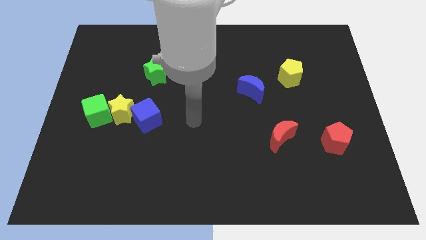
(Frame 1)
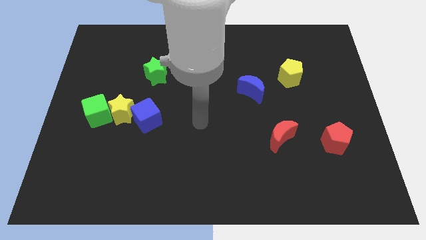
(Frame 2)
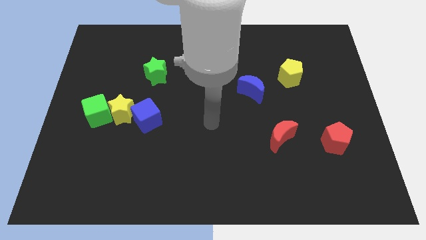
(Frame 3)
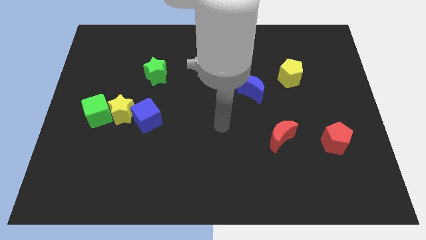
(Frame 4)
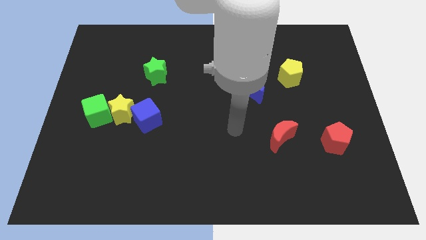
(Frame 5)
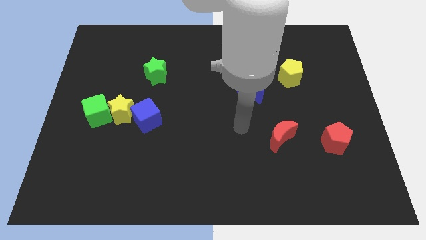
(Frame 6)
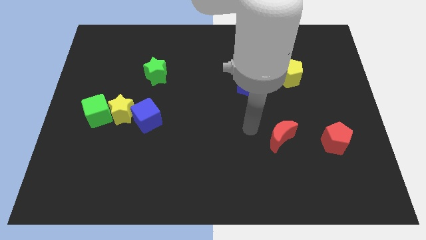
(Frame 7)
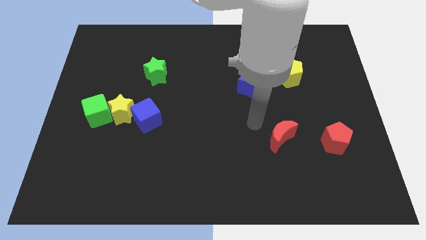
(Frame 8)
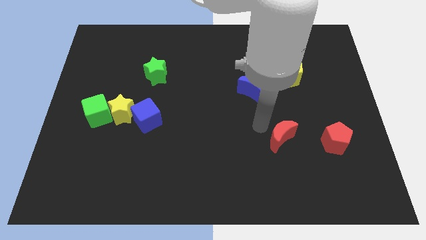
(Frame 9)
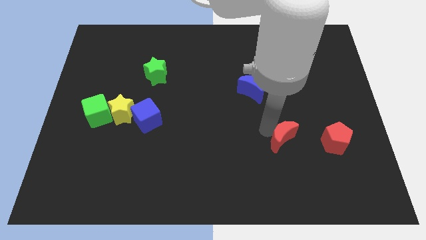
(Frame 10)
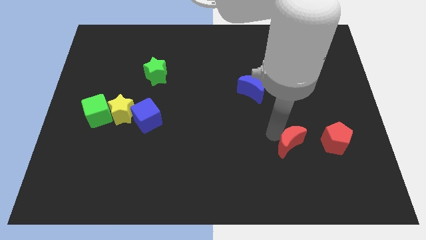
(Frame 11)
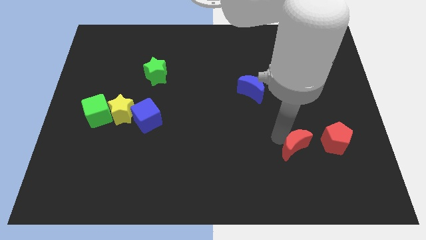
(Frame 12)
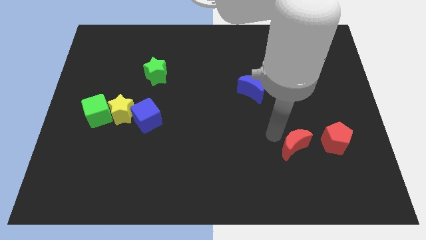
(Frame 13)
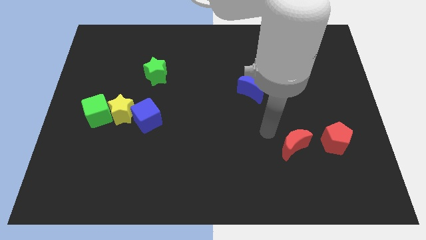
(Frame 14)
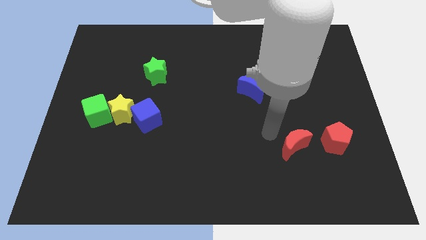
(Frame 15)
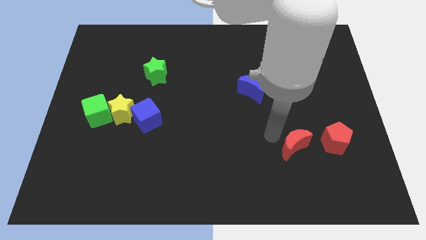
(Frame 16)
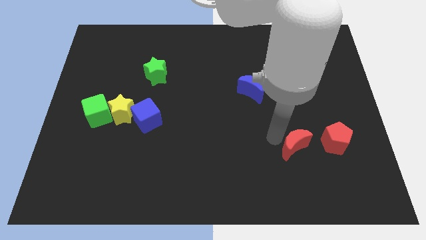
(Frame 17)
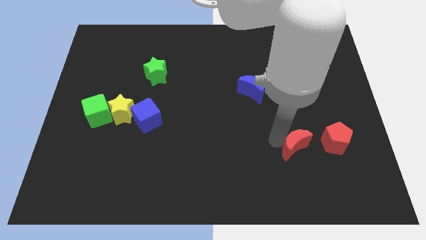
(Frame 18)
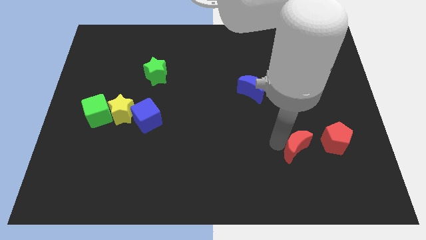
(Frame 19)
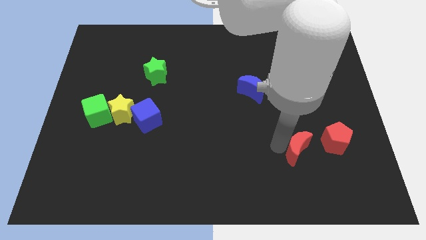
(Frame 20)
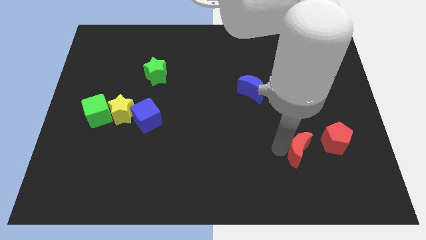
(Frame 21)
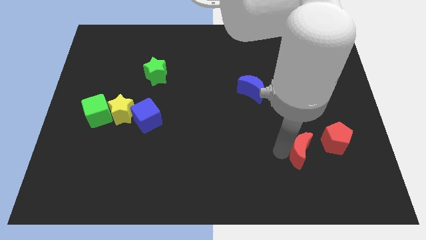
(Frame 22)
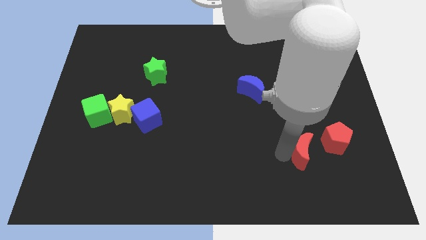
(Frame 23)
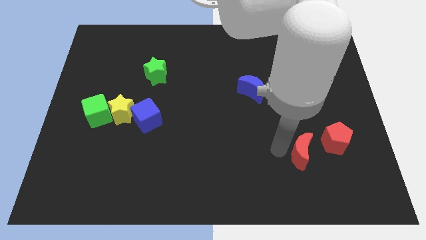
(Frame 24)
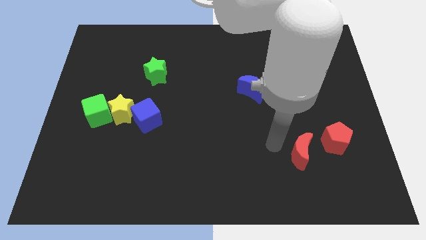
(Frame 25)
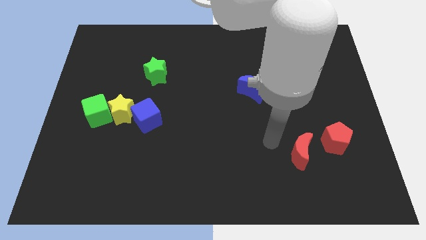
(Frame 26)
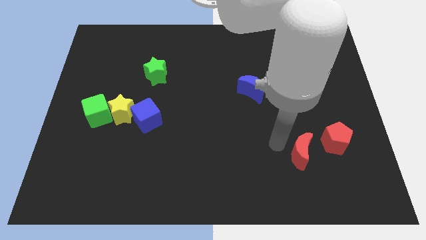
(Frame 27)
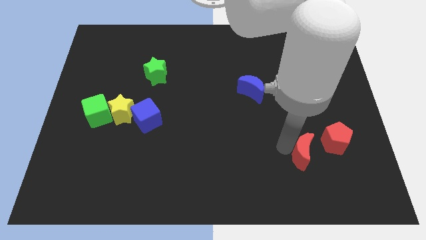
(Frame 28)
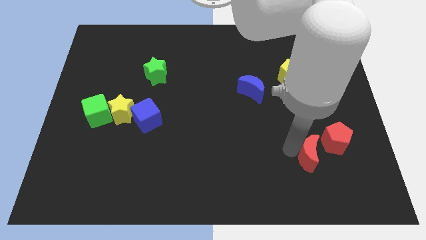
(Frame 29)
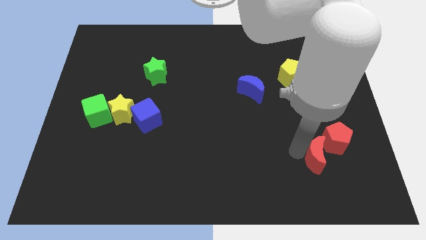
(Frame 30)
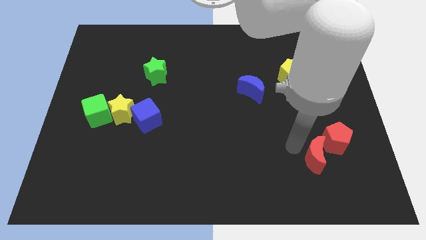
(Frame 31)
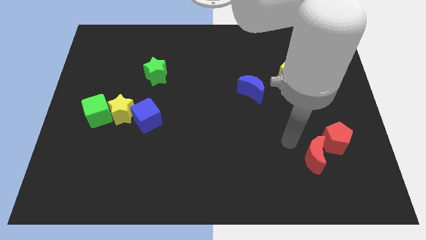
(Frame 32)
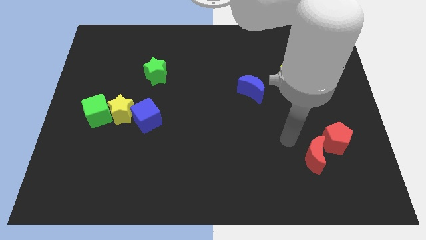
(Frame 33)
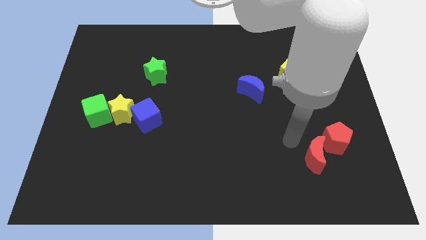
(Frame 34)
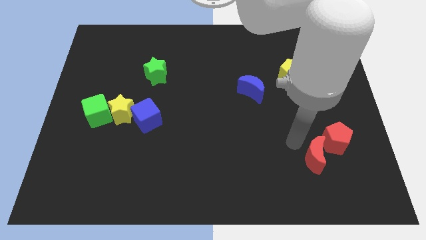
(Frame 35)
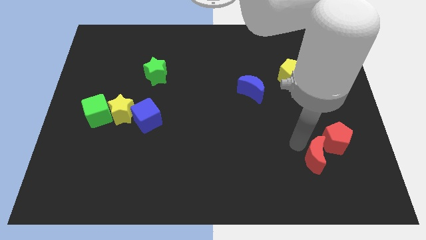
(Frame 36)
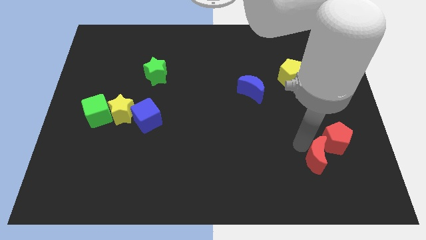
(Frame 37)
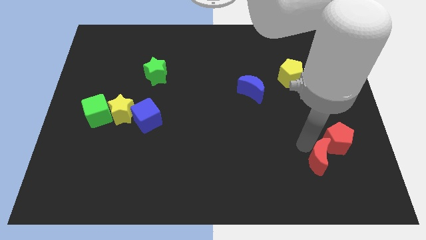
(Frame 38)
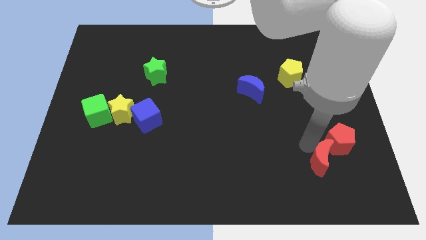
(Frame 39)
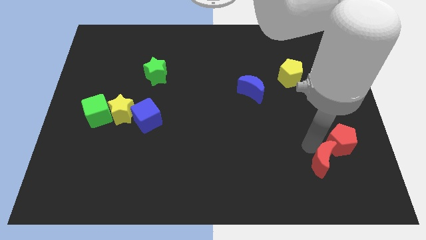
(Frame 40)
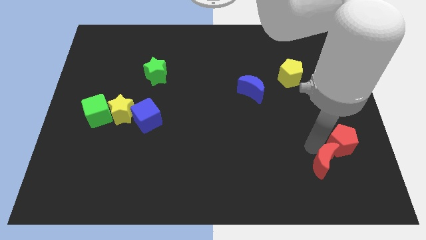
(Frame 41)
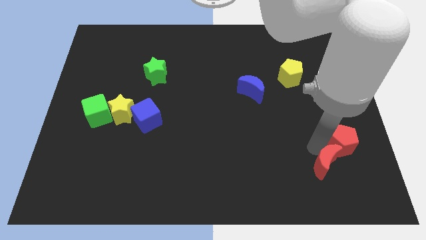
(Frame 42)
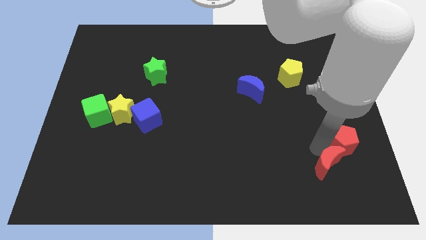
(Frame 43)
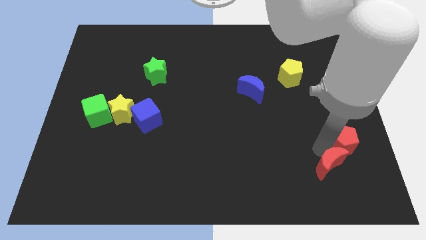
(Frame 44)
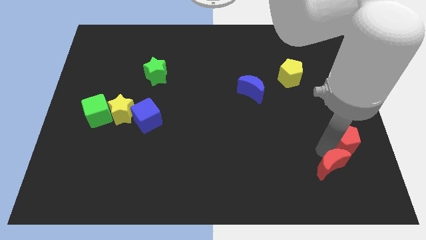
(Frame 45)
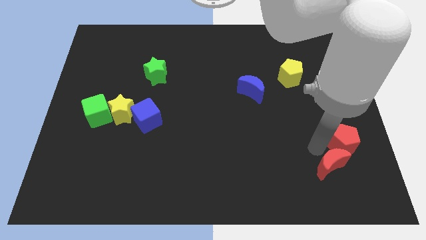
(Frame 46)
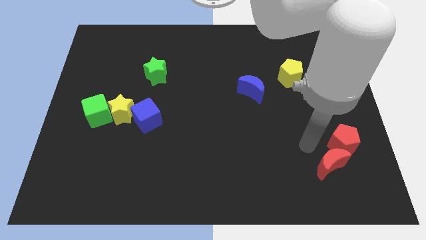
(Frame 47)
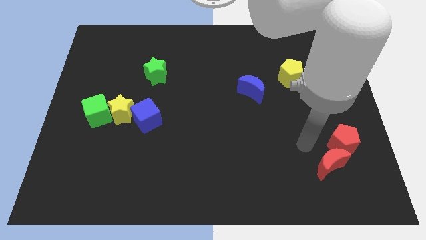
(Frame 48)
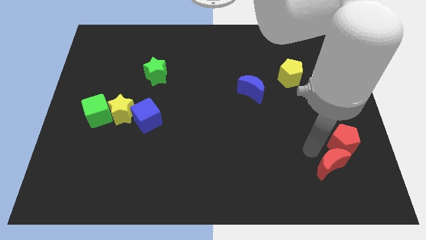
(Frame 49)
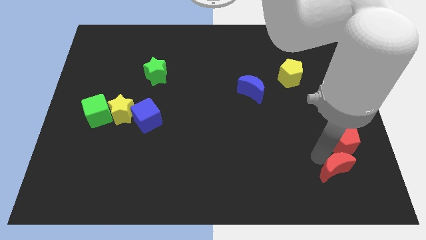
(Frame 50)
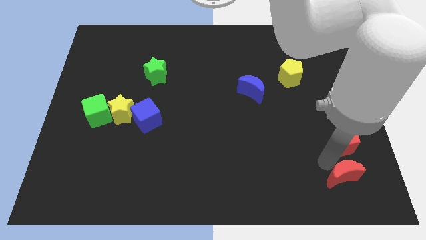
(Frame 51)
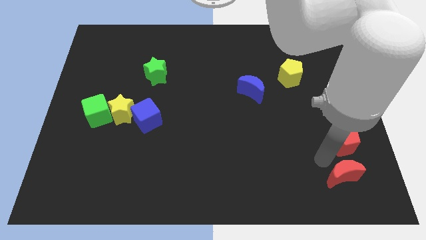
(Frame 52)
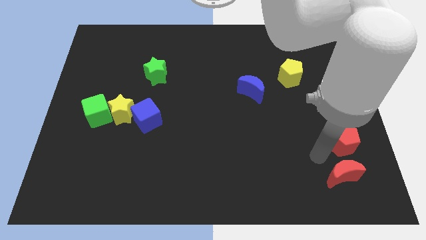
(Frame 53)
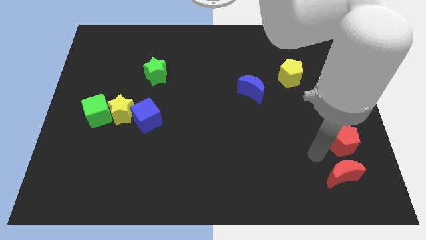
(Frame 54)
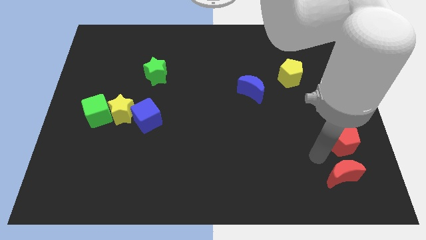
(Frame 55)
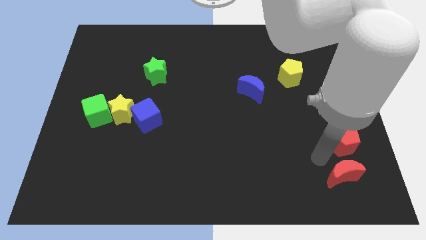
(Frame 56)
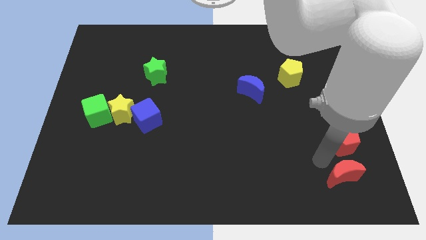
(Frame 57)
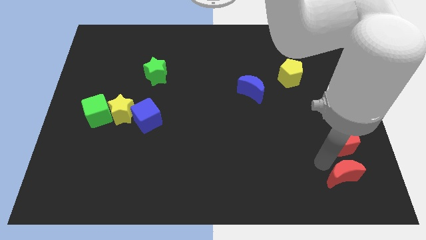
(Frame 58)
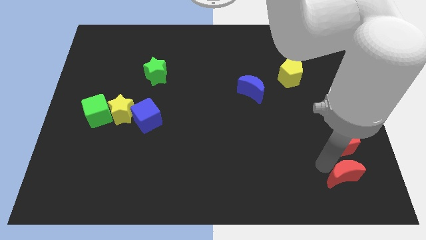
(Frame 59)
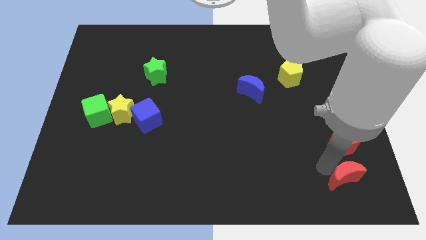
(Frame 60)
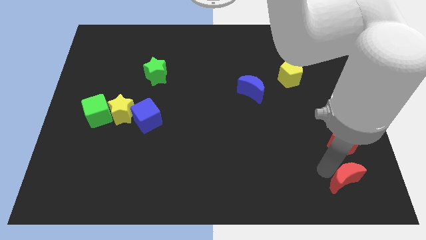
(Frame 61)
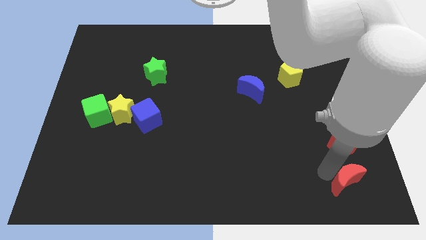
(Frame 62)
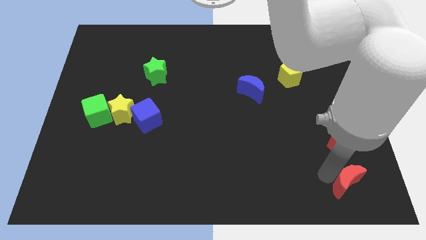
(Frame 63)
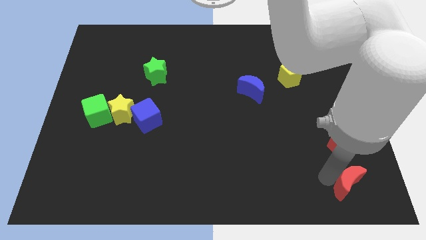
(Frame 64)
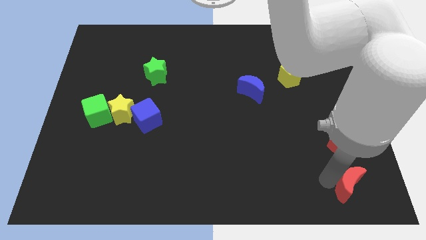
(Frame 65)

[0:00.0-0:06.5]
move the red moon to the bottom right corner
